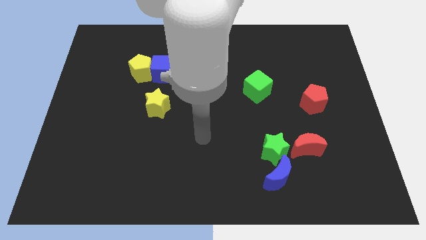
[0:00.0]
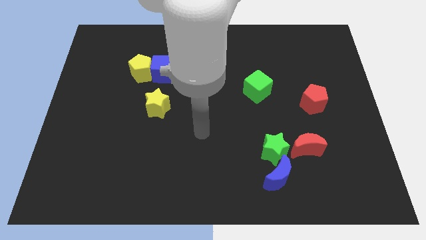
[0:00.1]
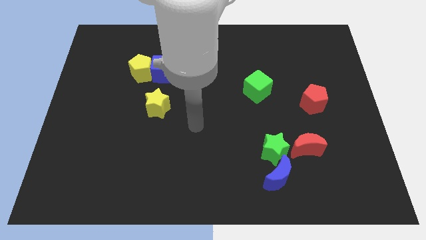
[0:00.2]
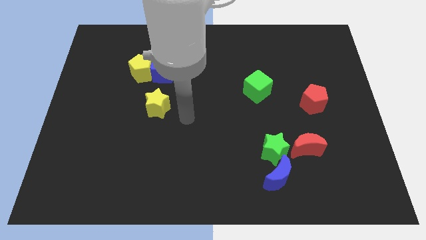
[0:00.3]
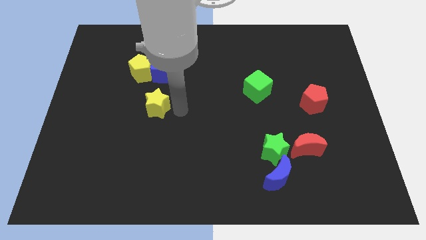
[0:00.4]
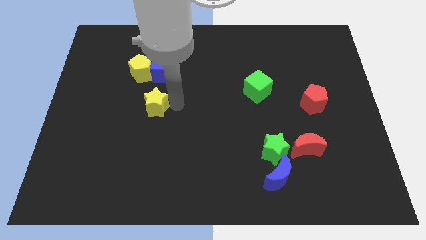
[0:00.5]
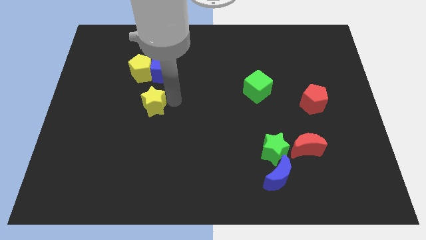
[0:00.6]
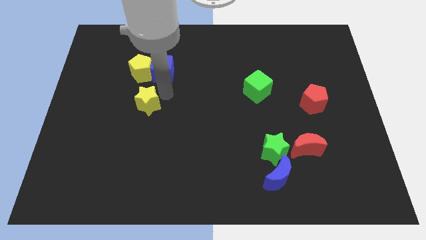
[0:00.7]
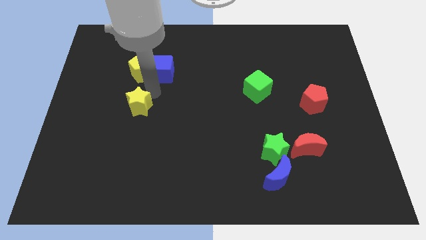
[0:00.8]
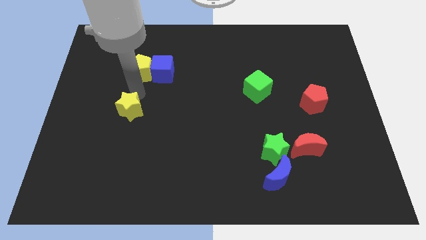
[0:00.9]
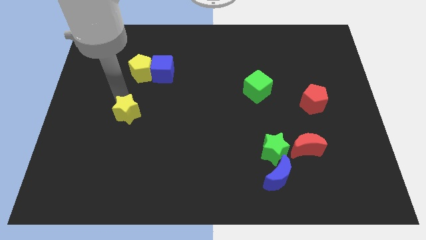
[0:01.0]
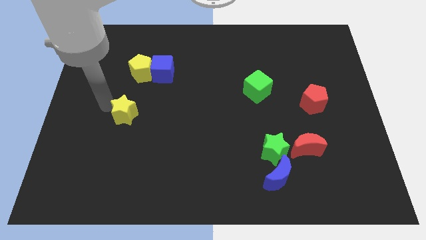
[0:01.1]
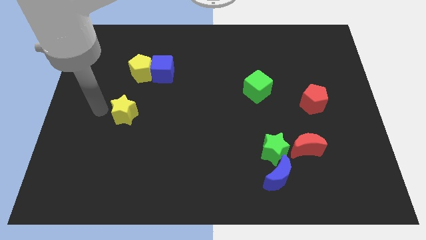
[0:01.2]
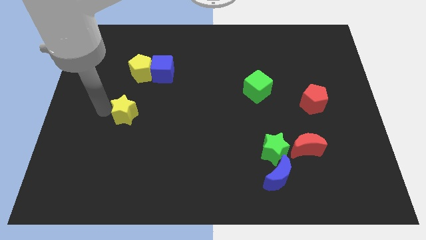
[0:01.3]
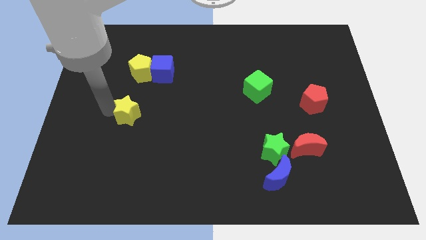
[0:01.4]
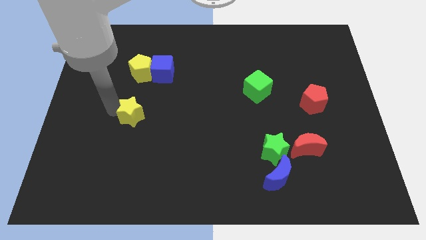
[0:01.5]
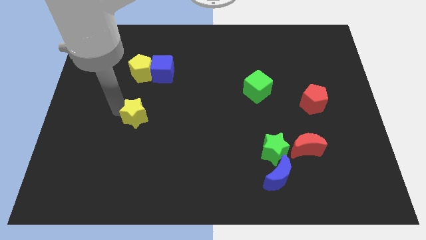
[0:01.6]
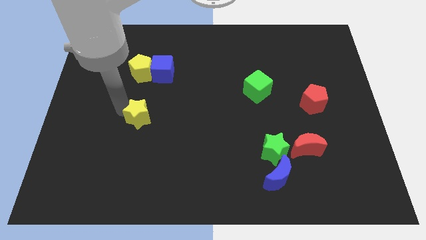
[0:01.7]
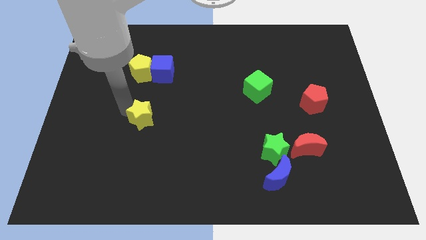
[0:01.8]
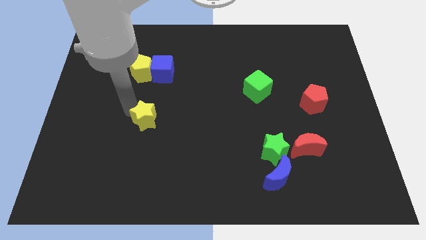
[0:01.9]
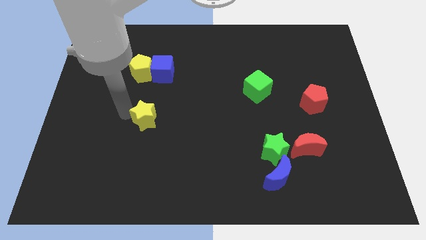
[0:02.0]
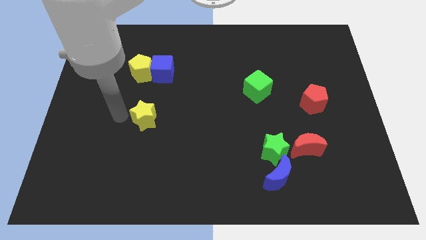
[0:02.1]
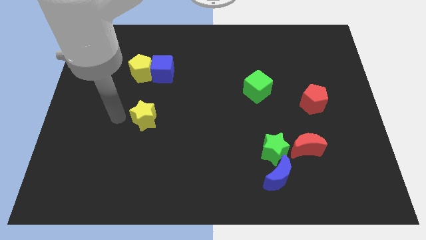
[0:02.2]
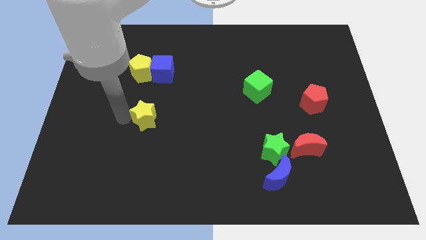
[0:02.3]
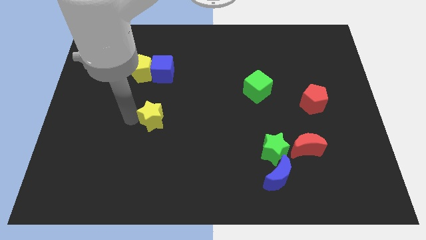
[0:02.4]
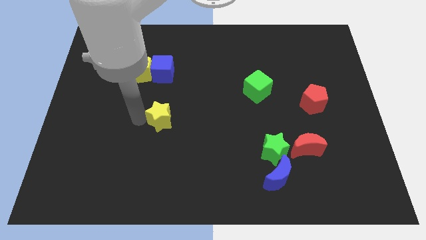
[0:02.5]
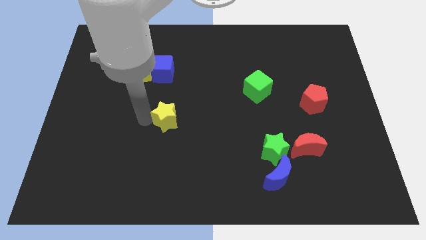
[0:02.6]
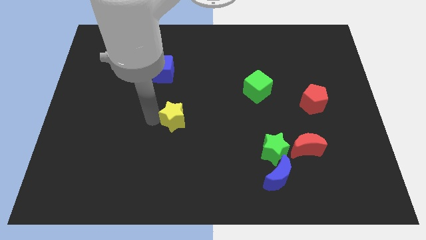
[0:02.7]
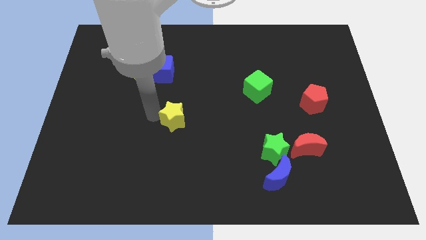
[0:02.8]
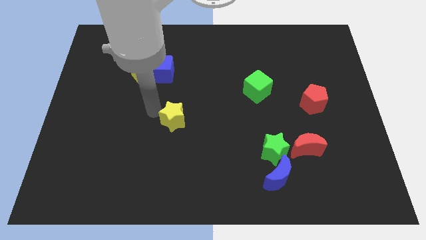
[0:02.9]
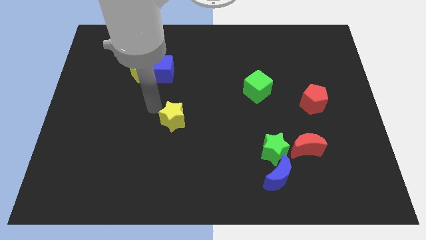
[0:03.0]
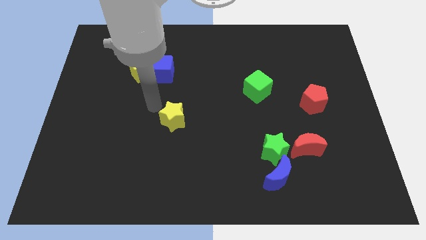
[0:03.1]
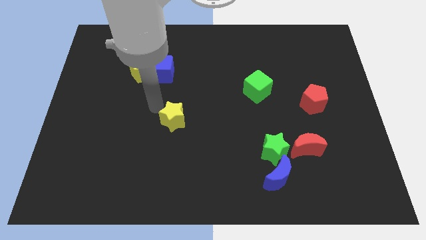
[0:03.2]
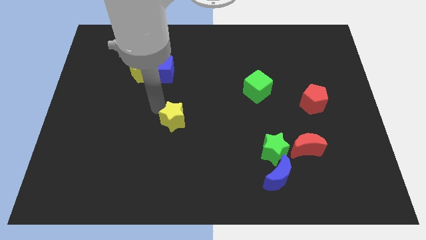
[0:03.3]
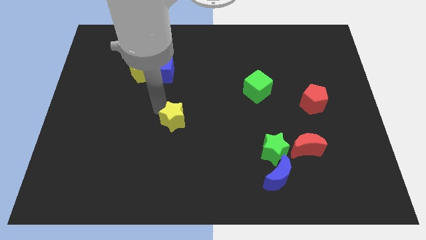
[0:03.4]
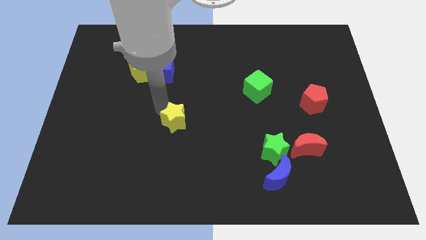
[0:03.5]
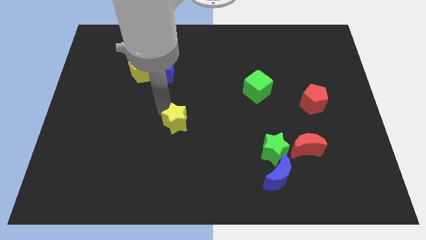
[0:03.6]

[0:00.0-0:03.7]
slide the yellow star diagonally down and to the right a little bit

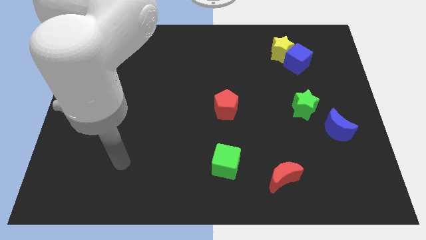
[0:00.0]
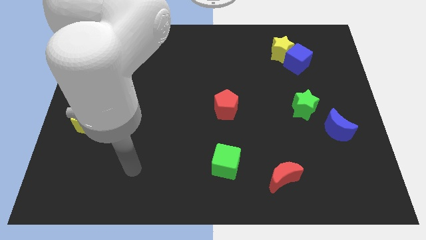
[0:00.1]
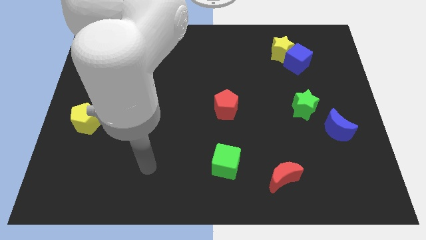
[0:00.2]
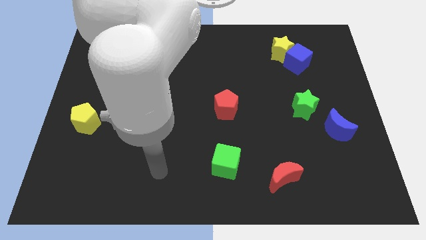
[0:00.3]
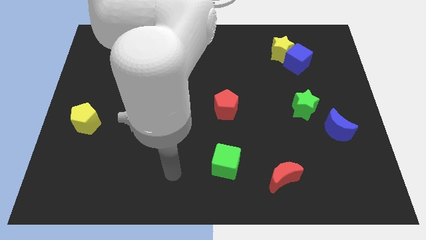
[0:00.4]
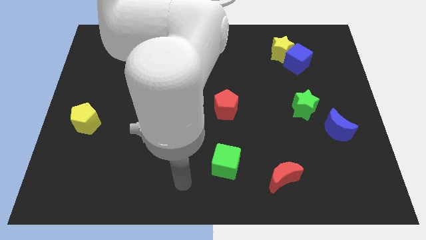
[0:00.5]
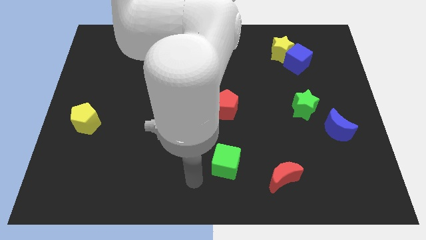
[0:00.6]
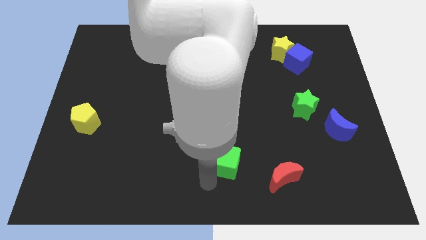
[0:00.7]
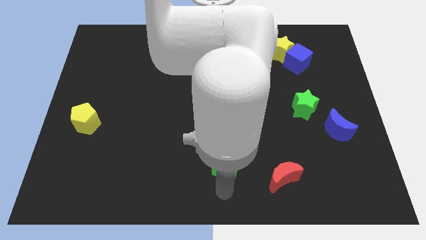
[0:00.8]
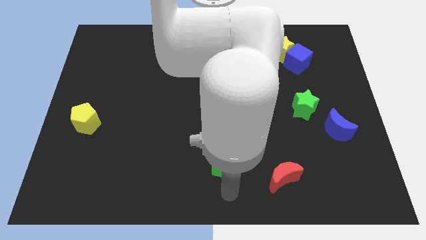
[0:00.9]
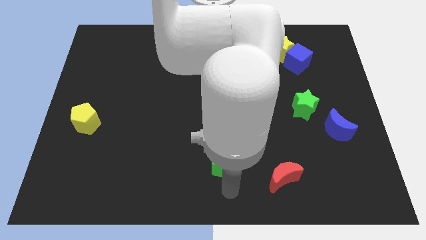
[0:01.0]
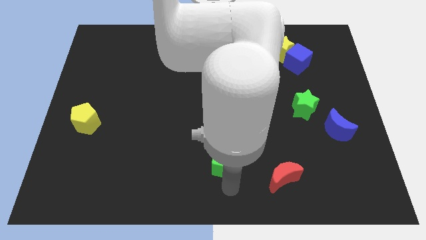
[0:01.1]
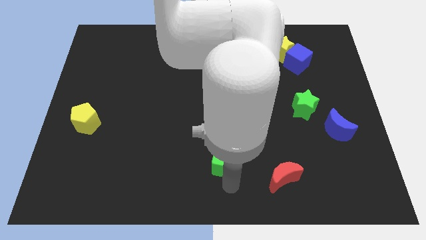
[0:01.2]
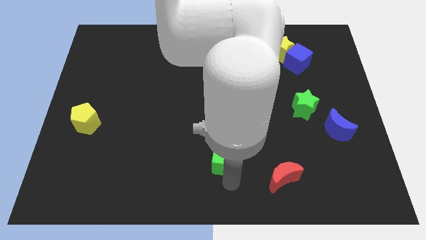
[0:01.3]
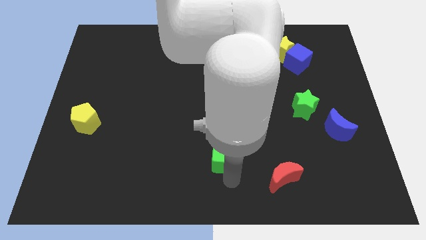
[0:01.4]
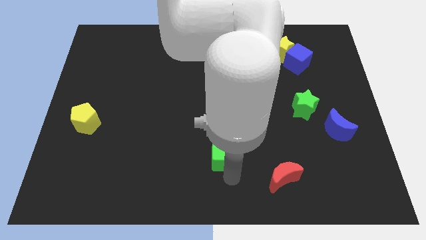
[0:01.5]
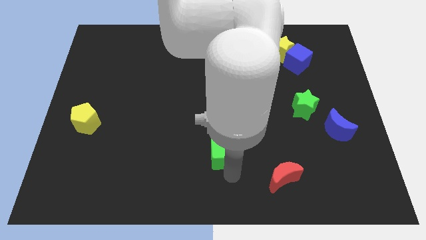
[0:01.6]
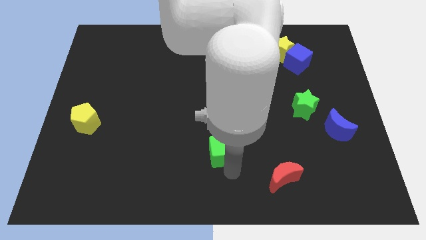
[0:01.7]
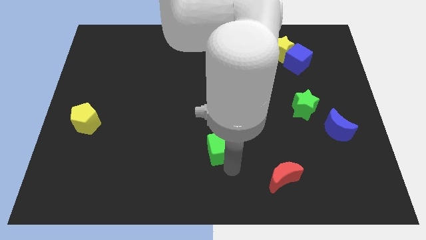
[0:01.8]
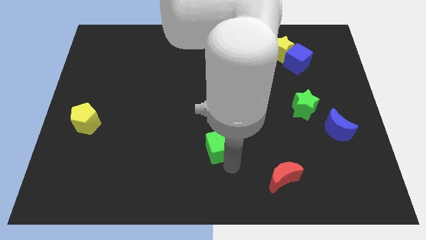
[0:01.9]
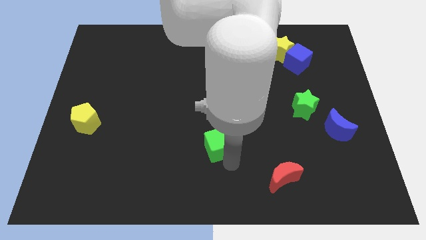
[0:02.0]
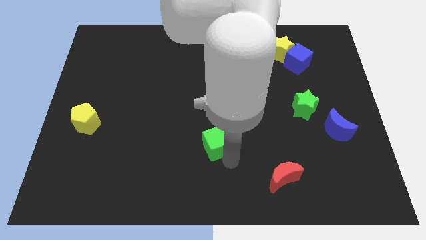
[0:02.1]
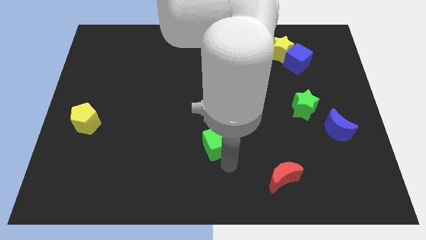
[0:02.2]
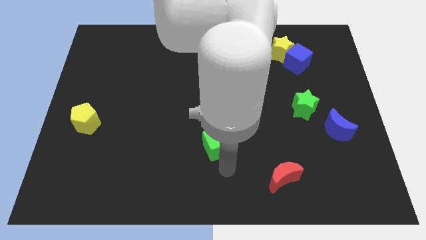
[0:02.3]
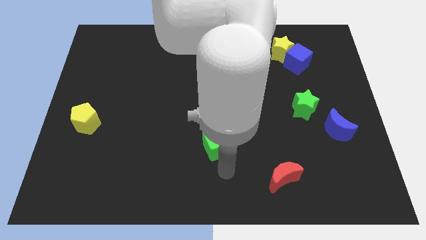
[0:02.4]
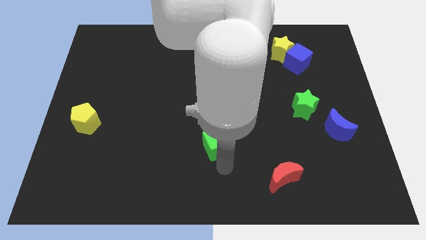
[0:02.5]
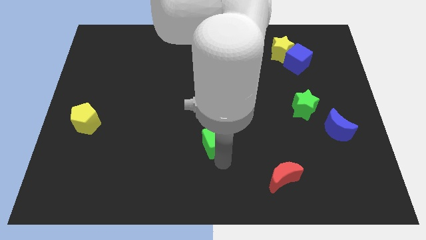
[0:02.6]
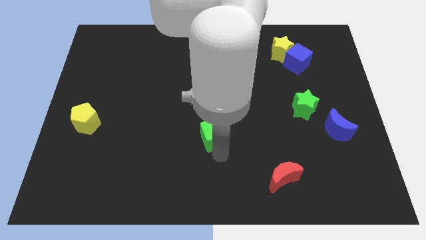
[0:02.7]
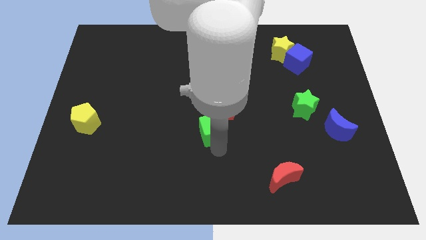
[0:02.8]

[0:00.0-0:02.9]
move the green cube up a little bit

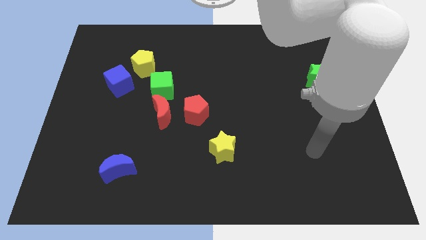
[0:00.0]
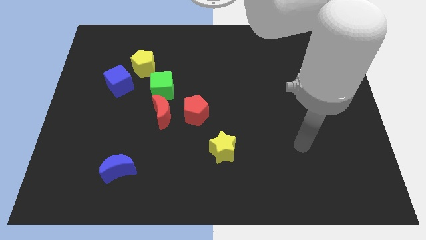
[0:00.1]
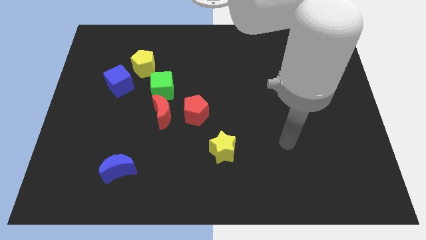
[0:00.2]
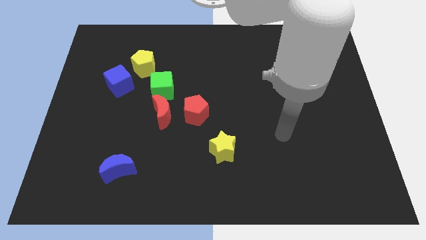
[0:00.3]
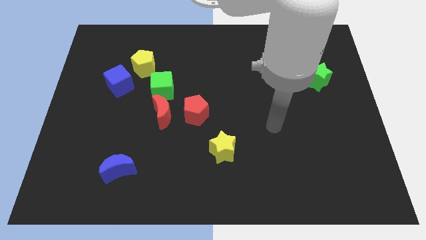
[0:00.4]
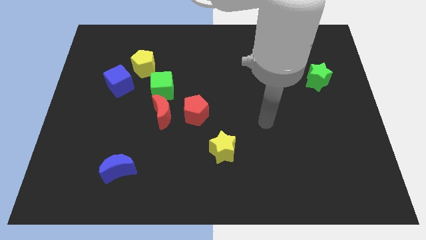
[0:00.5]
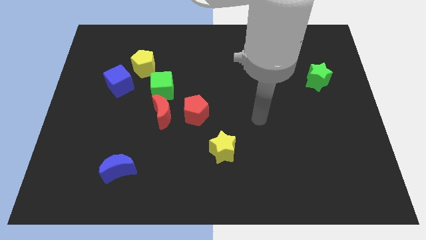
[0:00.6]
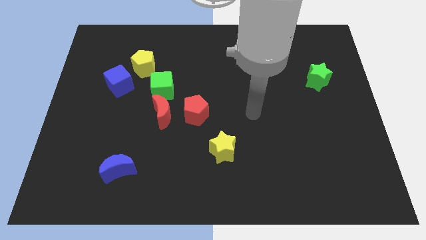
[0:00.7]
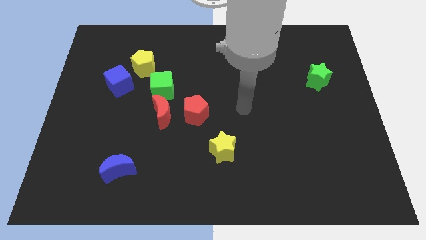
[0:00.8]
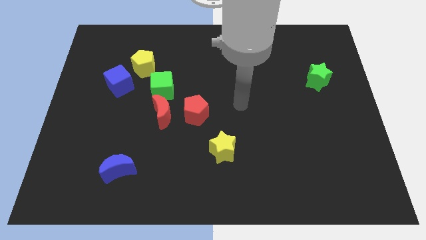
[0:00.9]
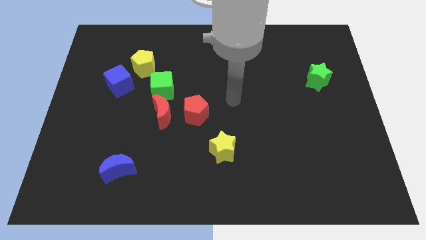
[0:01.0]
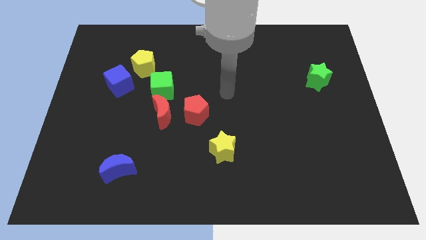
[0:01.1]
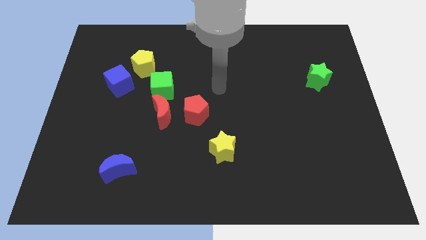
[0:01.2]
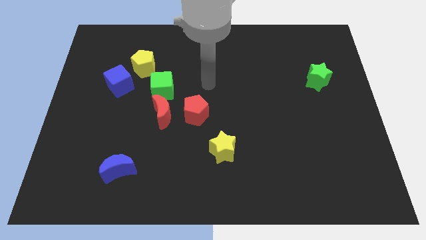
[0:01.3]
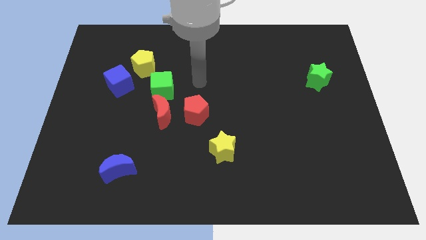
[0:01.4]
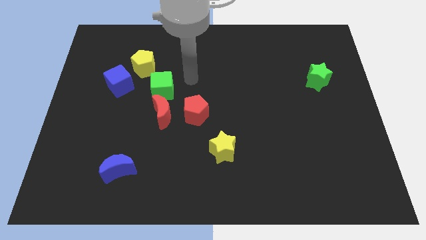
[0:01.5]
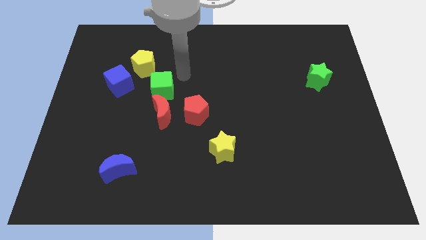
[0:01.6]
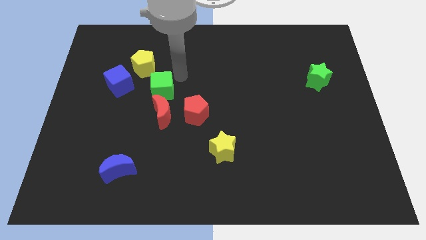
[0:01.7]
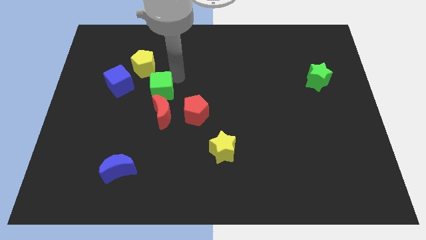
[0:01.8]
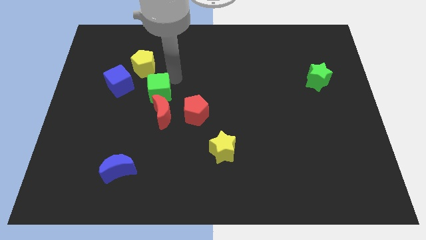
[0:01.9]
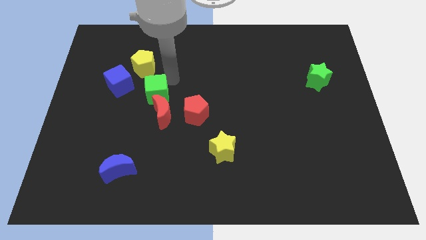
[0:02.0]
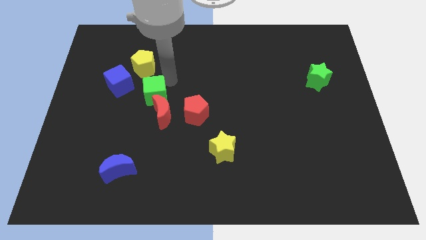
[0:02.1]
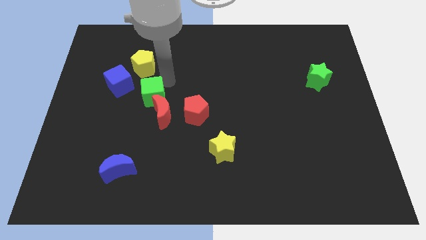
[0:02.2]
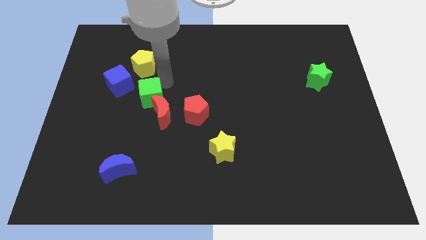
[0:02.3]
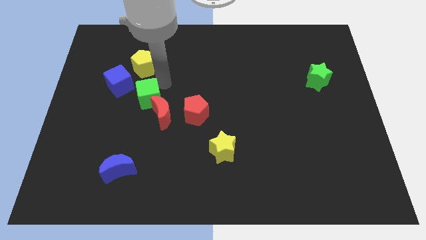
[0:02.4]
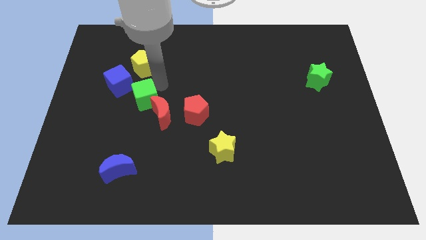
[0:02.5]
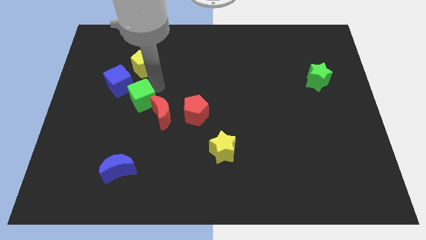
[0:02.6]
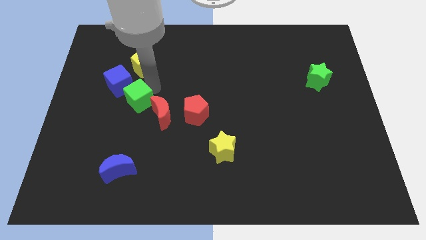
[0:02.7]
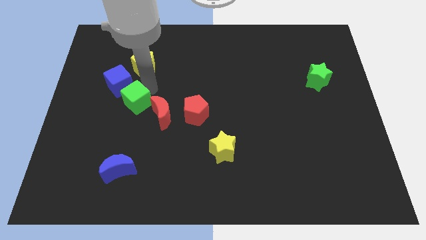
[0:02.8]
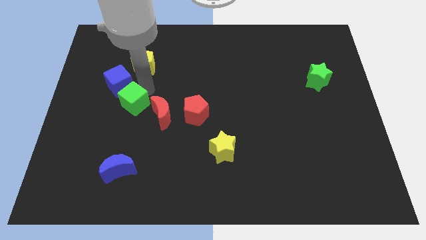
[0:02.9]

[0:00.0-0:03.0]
push the green cube down and then to the left slightly
